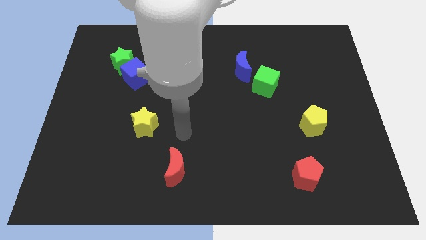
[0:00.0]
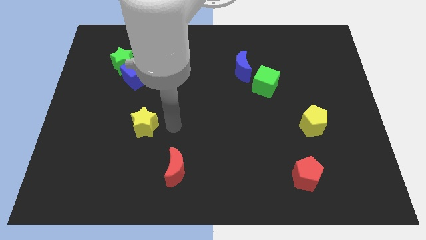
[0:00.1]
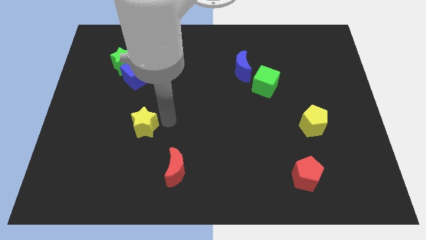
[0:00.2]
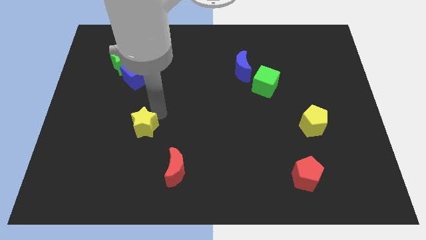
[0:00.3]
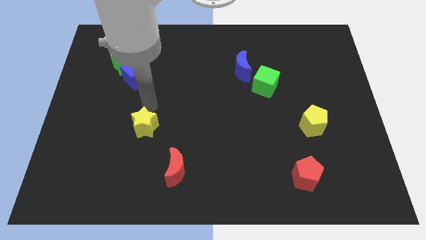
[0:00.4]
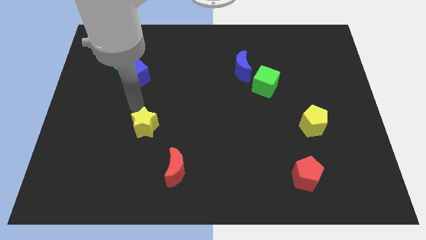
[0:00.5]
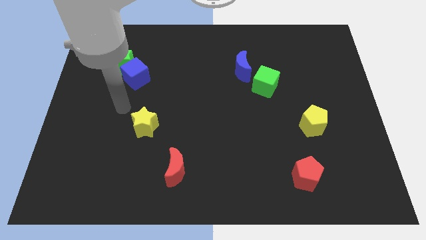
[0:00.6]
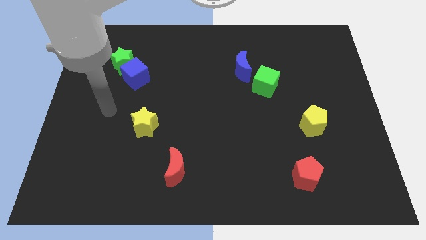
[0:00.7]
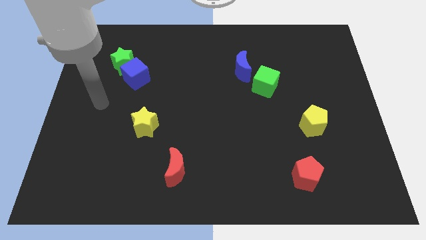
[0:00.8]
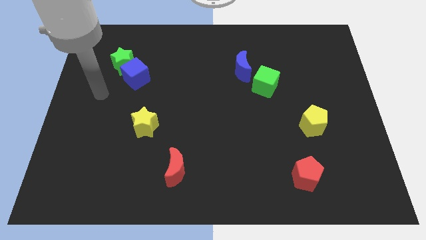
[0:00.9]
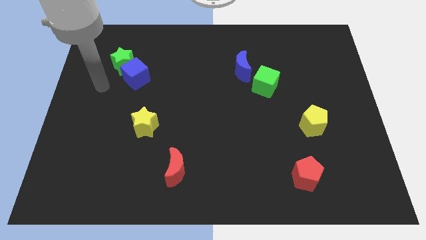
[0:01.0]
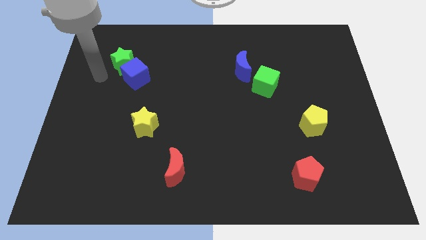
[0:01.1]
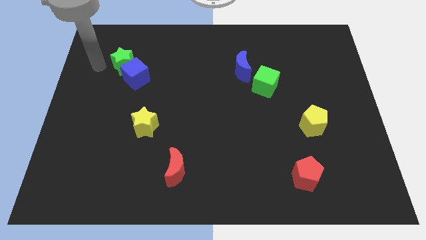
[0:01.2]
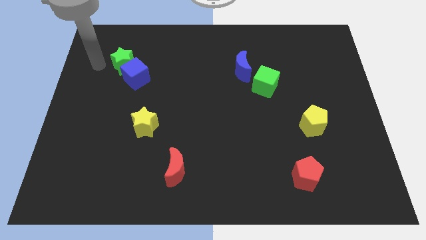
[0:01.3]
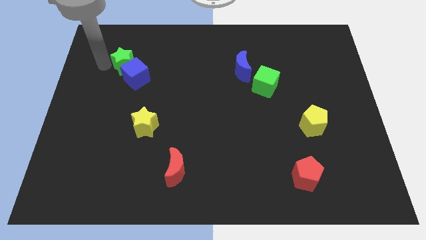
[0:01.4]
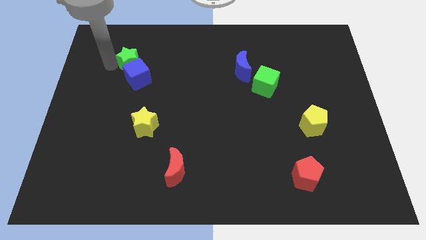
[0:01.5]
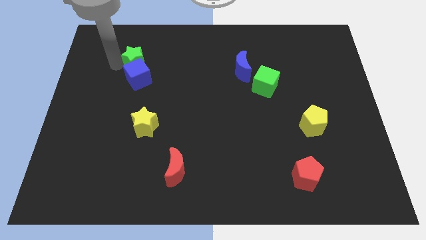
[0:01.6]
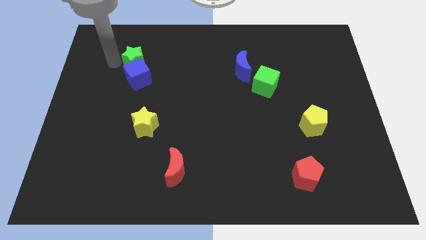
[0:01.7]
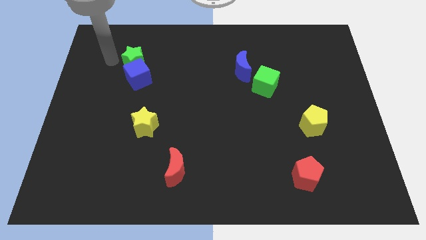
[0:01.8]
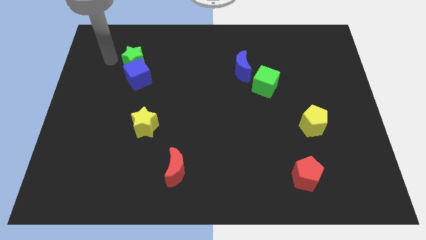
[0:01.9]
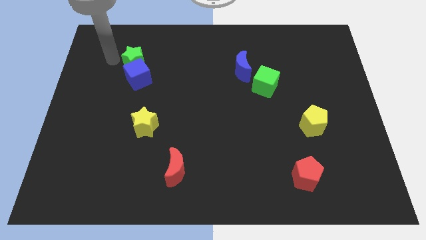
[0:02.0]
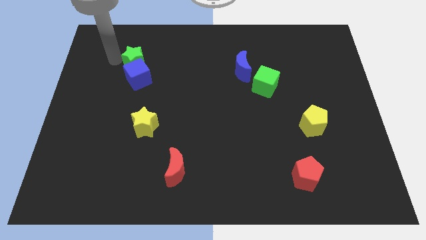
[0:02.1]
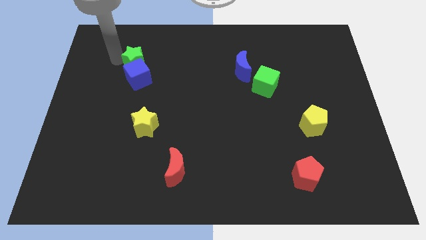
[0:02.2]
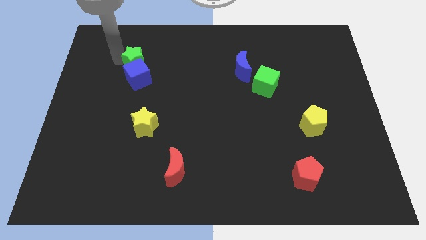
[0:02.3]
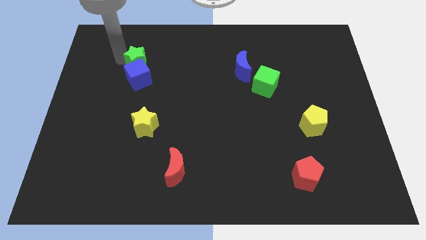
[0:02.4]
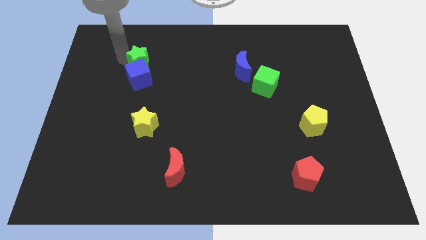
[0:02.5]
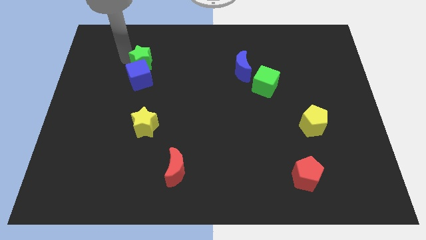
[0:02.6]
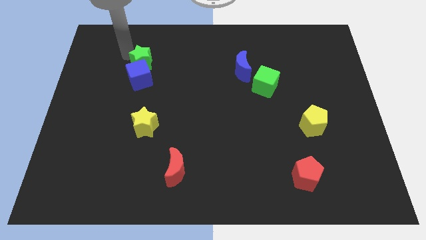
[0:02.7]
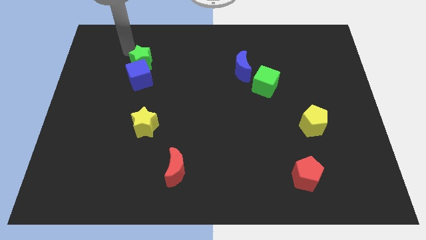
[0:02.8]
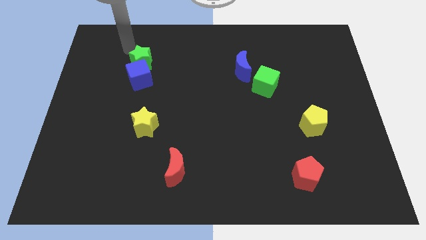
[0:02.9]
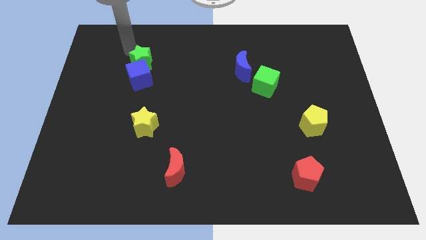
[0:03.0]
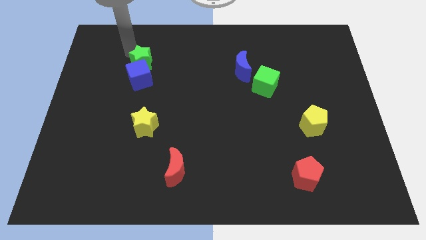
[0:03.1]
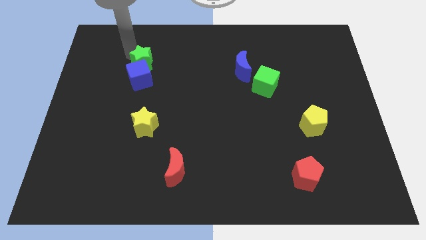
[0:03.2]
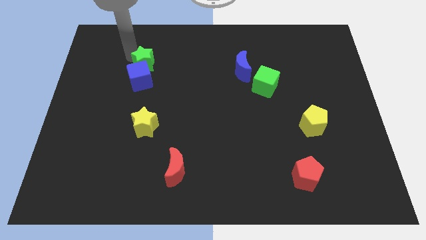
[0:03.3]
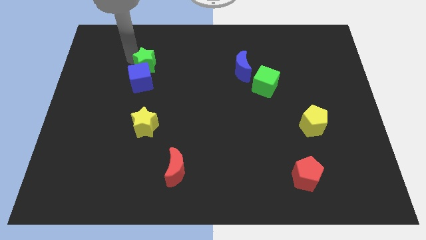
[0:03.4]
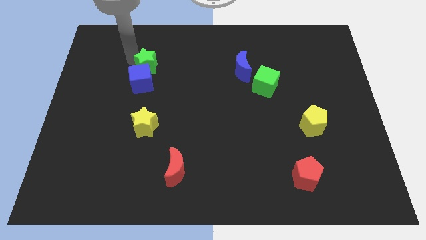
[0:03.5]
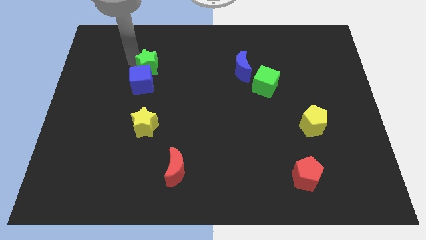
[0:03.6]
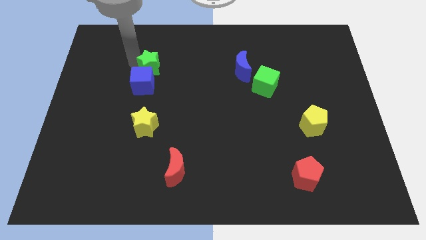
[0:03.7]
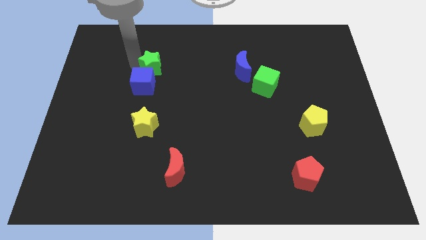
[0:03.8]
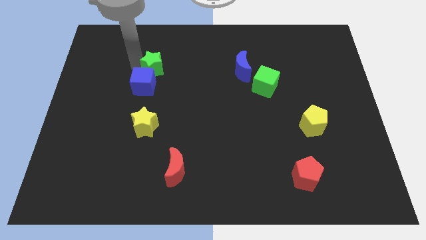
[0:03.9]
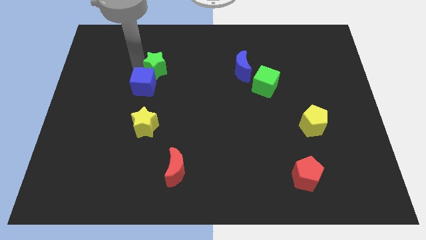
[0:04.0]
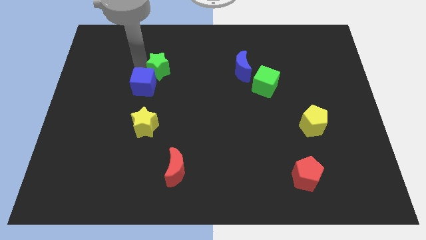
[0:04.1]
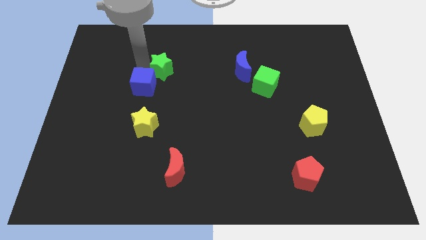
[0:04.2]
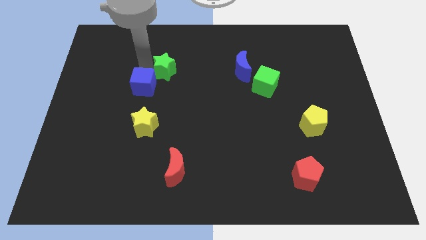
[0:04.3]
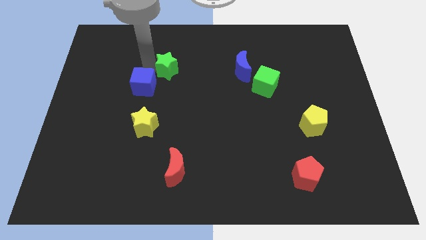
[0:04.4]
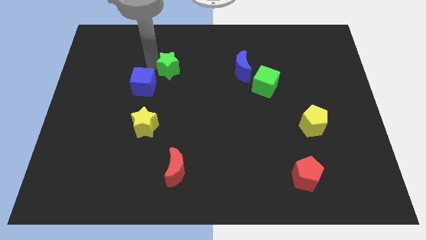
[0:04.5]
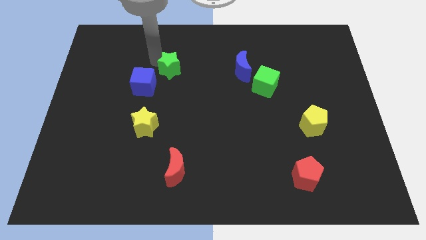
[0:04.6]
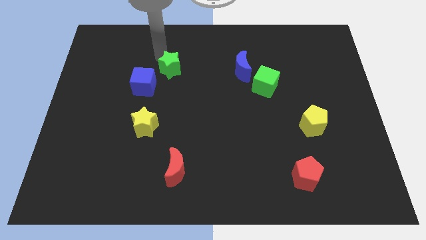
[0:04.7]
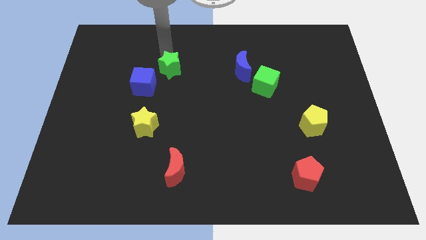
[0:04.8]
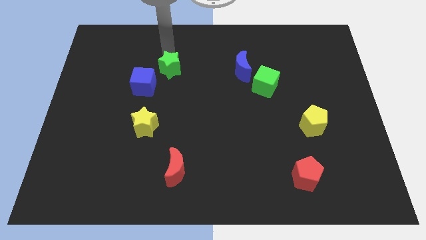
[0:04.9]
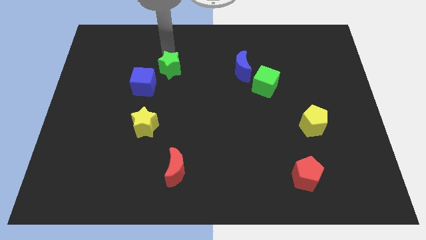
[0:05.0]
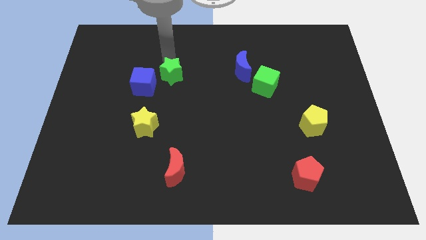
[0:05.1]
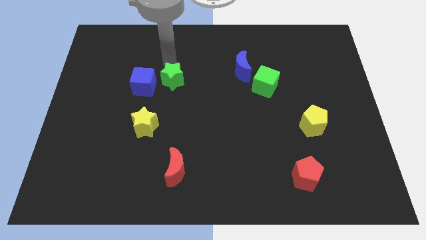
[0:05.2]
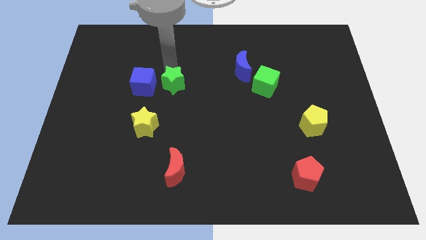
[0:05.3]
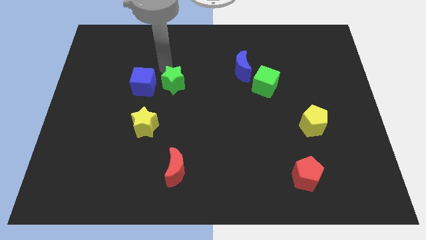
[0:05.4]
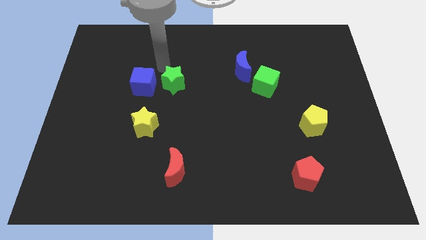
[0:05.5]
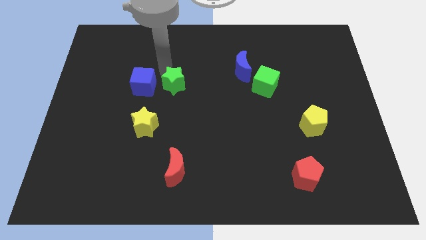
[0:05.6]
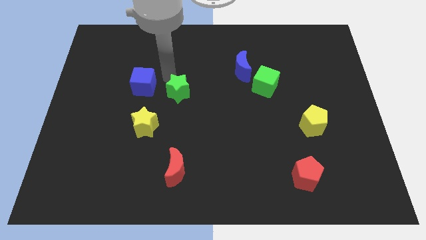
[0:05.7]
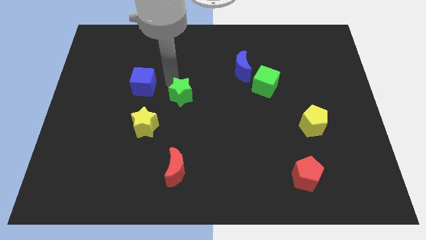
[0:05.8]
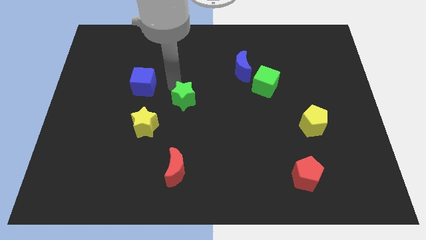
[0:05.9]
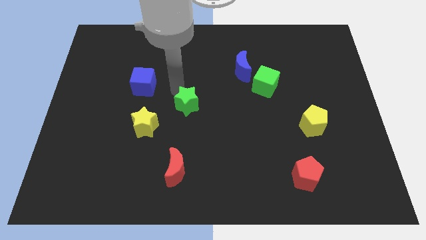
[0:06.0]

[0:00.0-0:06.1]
push the green star downwards and then right

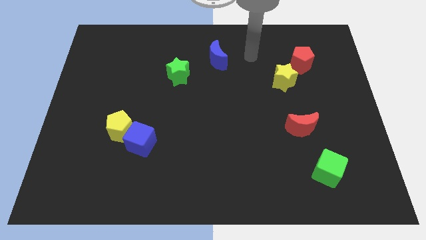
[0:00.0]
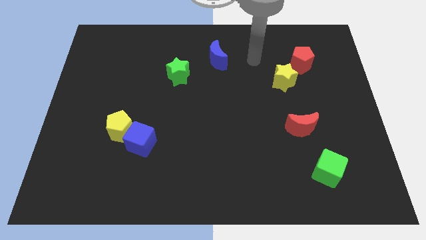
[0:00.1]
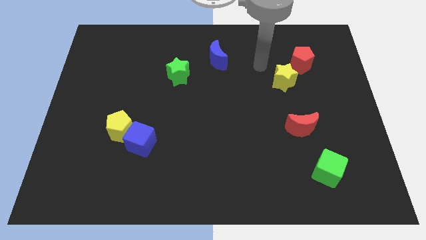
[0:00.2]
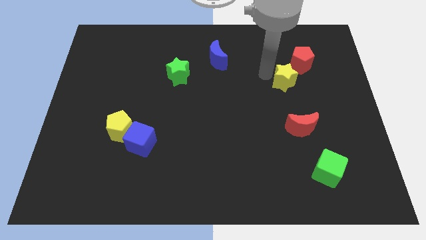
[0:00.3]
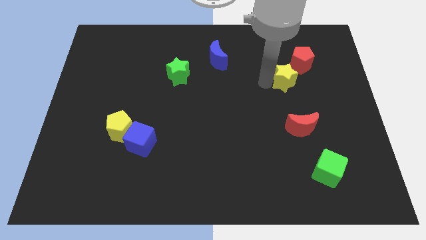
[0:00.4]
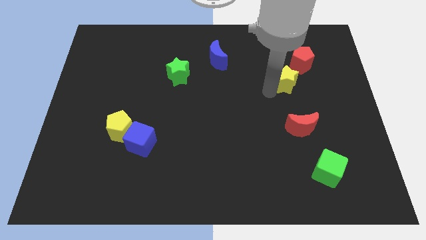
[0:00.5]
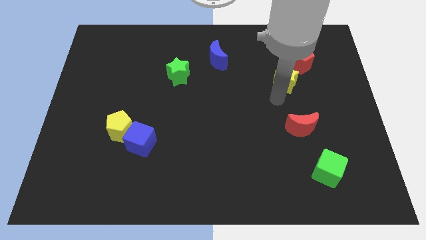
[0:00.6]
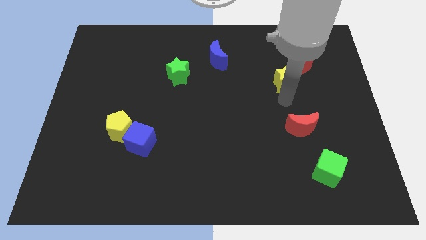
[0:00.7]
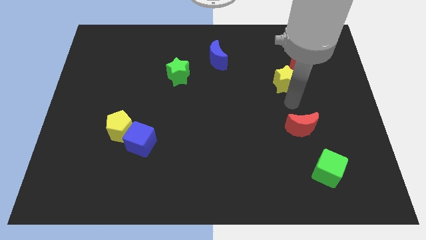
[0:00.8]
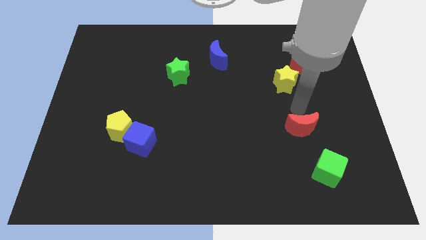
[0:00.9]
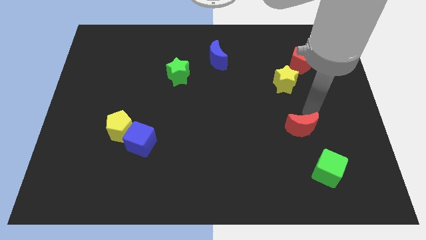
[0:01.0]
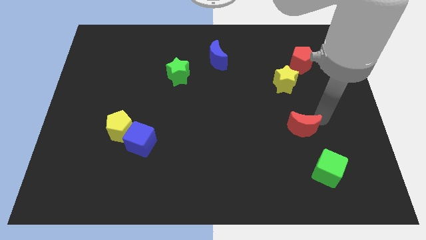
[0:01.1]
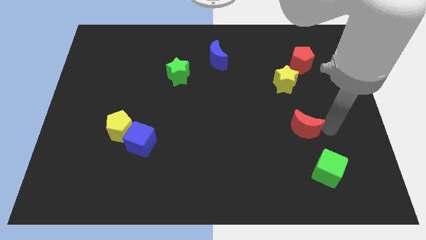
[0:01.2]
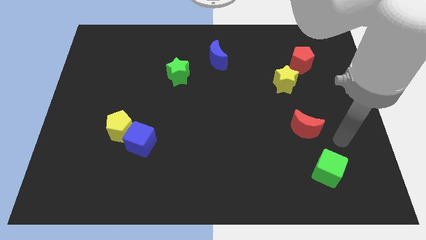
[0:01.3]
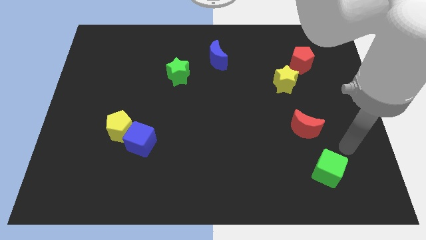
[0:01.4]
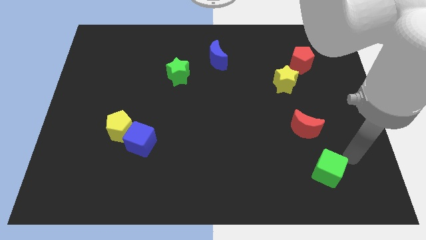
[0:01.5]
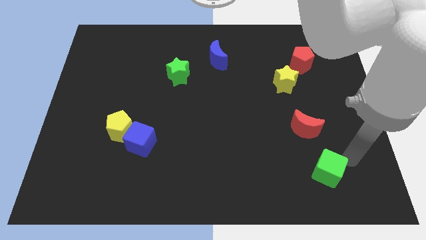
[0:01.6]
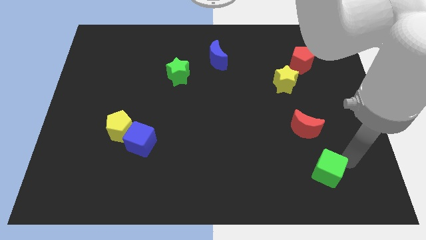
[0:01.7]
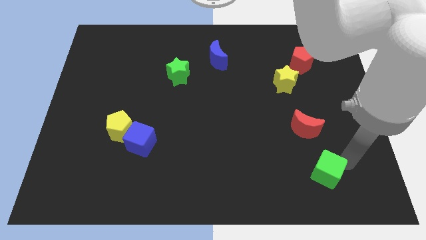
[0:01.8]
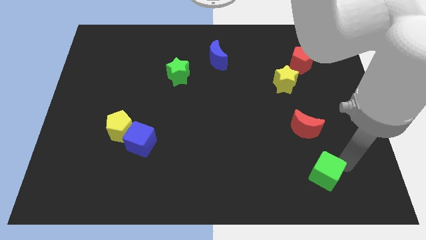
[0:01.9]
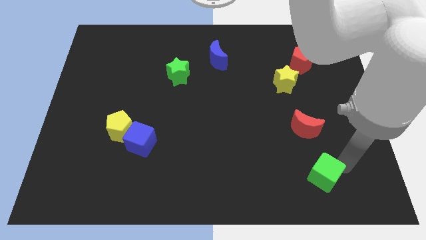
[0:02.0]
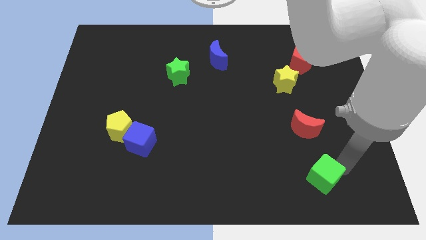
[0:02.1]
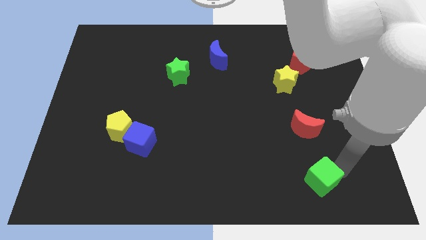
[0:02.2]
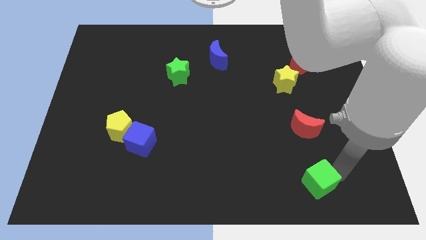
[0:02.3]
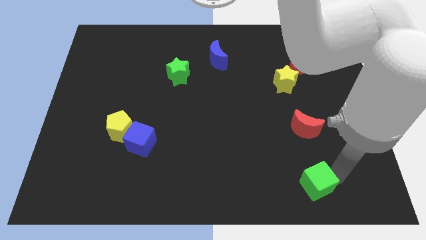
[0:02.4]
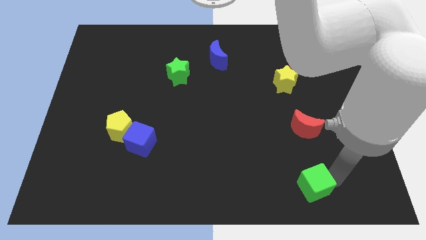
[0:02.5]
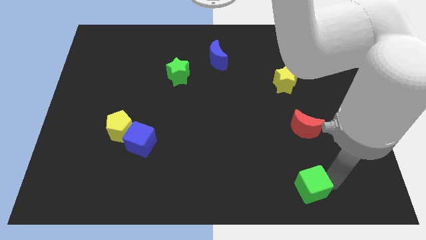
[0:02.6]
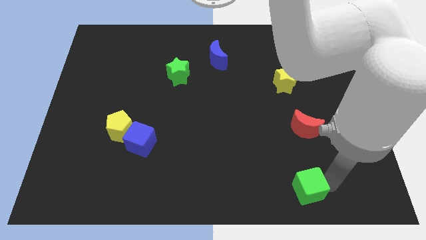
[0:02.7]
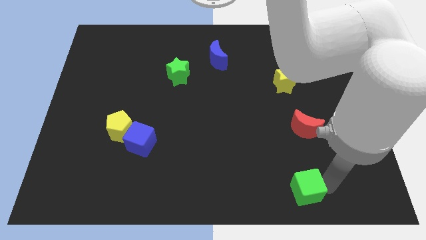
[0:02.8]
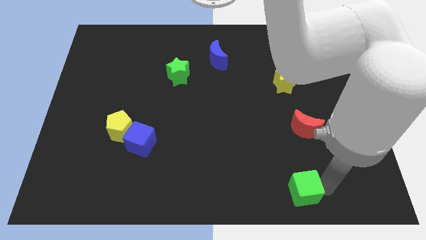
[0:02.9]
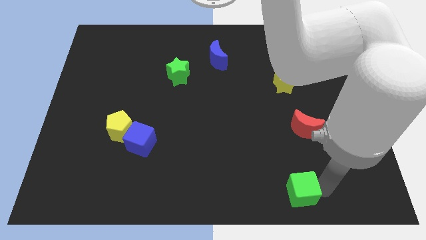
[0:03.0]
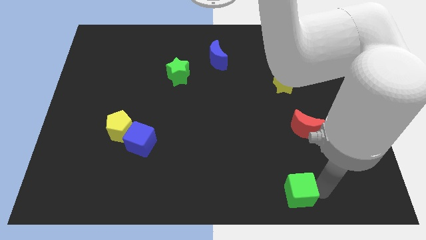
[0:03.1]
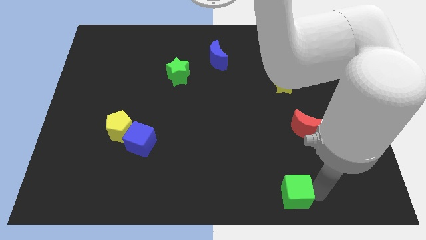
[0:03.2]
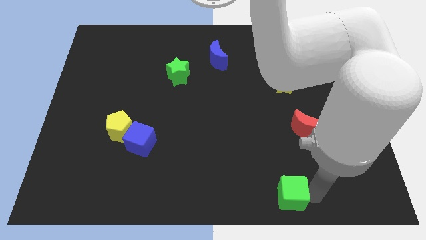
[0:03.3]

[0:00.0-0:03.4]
slide the green cube a bit left
